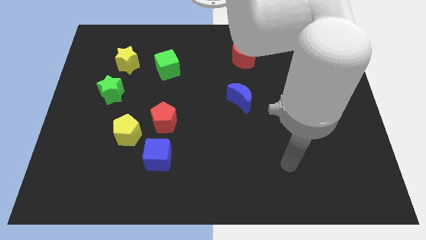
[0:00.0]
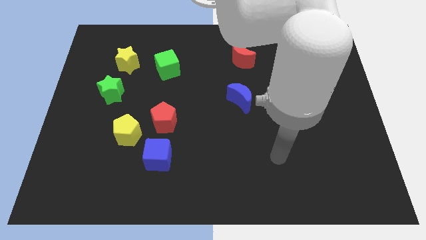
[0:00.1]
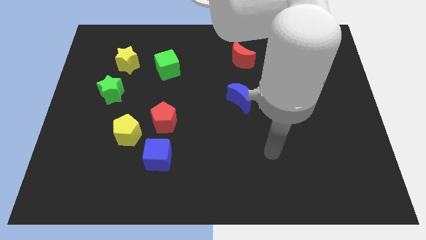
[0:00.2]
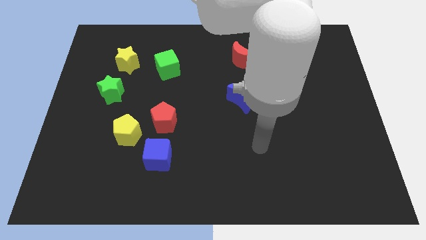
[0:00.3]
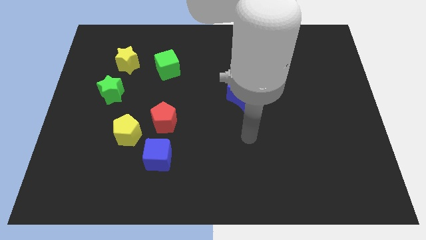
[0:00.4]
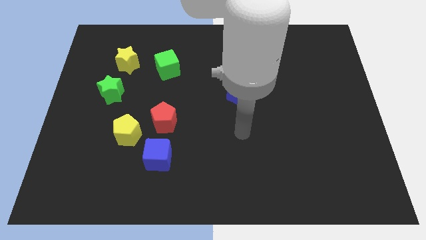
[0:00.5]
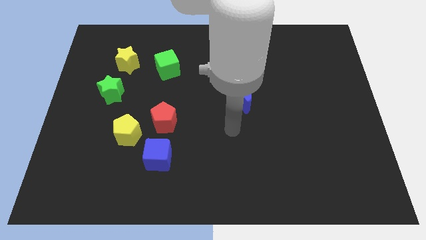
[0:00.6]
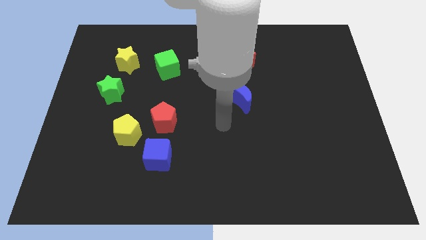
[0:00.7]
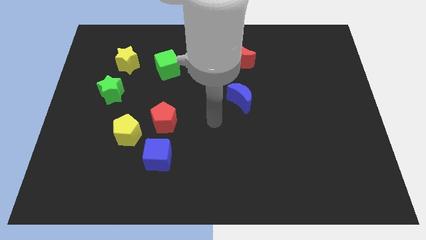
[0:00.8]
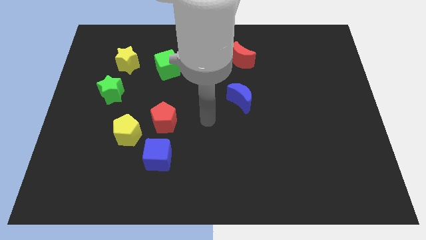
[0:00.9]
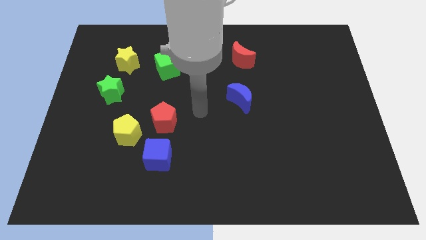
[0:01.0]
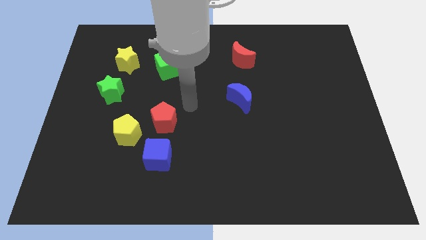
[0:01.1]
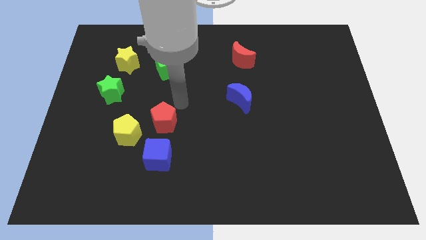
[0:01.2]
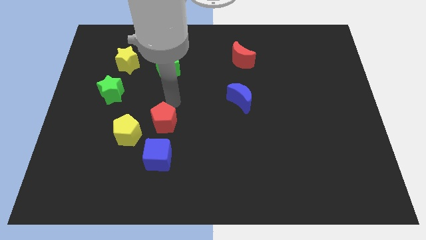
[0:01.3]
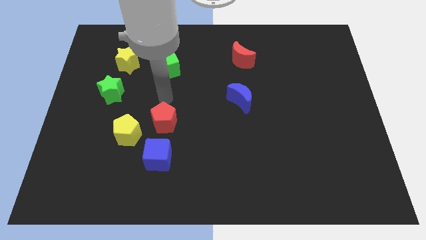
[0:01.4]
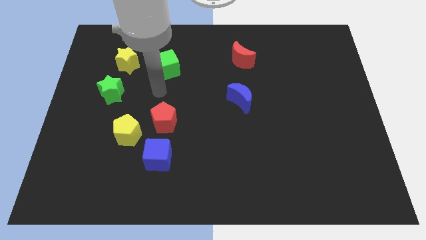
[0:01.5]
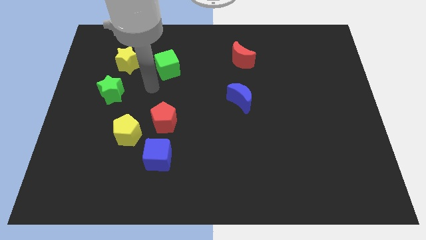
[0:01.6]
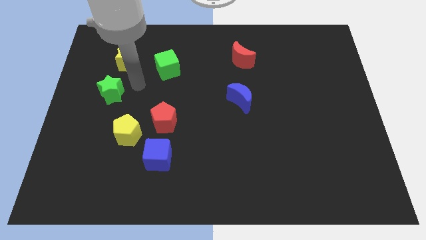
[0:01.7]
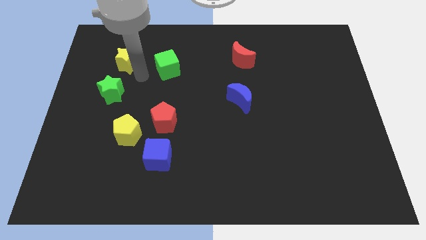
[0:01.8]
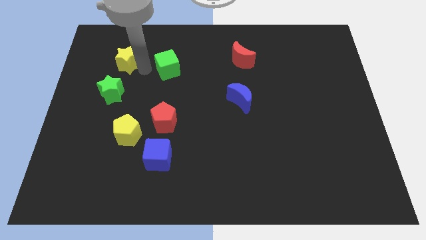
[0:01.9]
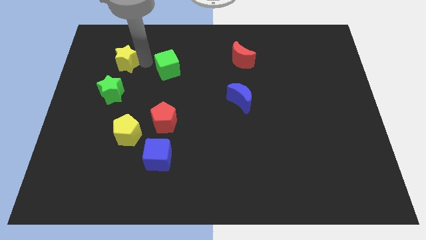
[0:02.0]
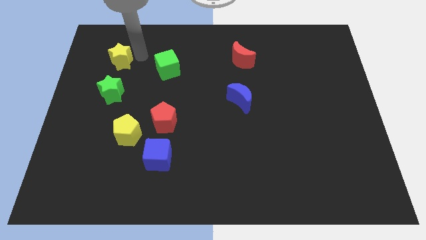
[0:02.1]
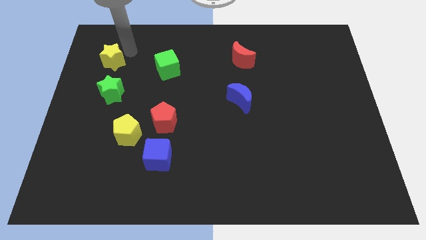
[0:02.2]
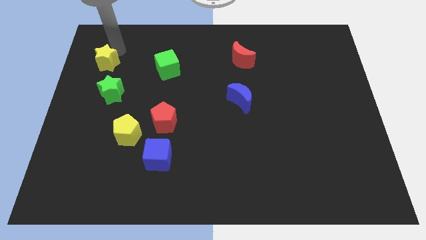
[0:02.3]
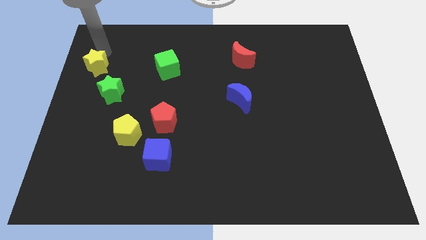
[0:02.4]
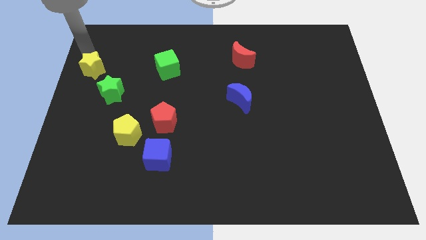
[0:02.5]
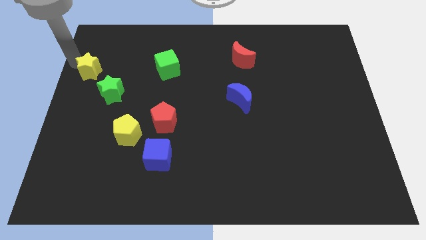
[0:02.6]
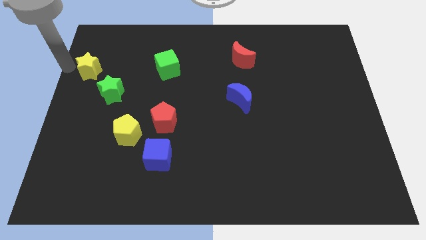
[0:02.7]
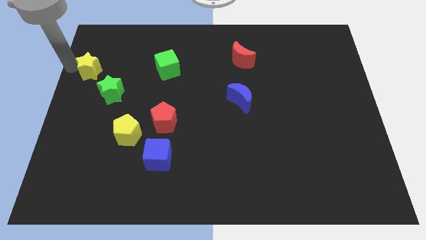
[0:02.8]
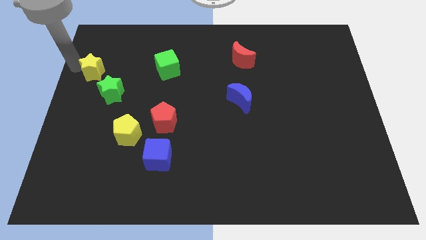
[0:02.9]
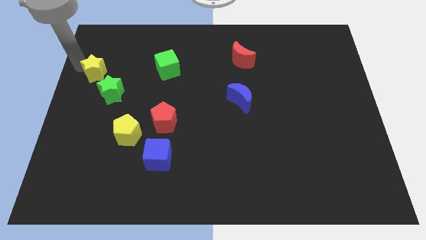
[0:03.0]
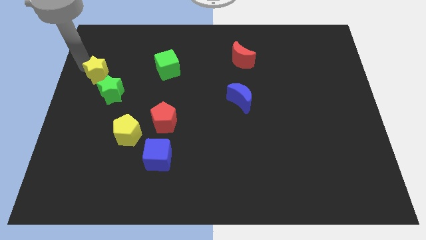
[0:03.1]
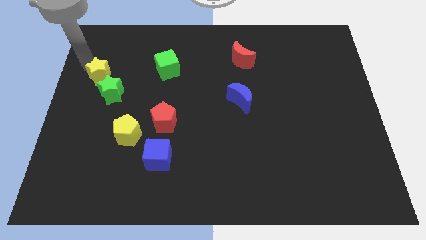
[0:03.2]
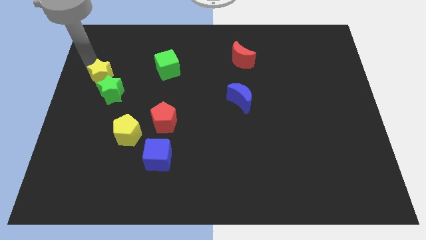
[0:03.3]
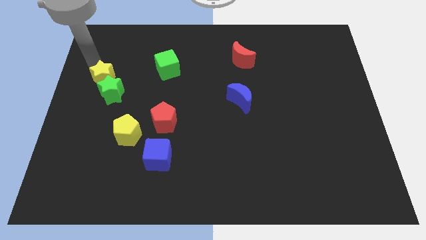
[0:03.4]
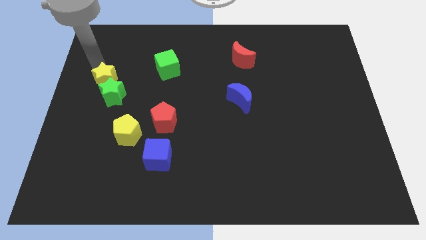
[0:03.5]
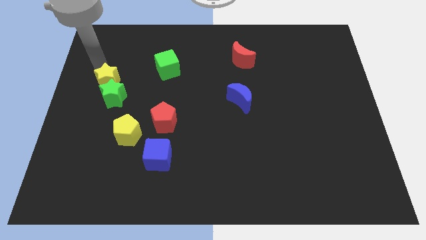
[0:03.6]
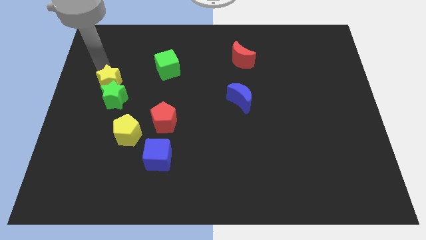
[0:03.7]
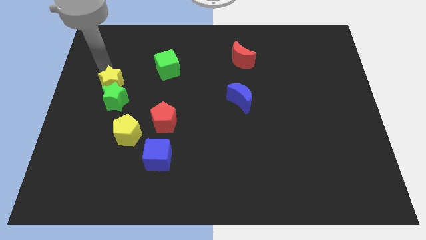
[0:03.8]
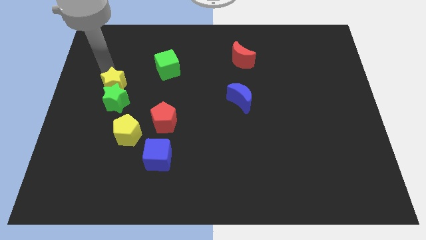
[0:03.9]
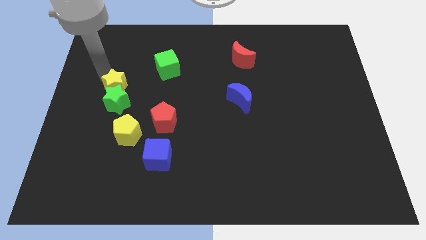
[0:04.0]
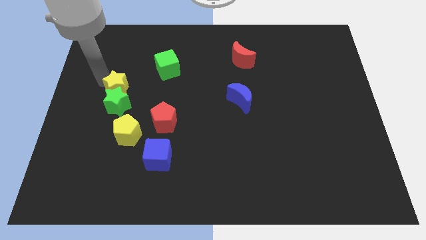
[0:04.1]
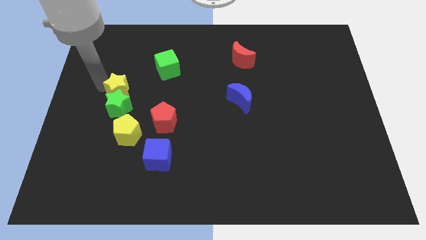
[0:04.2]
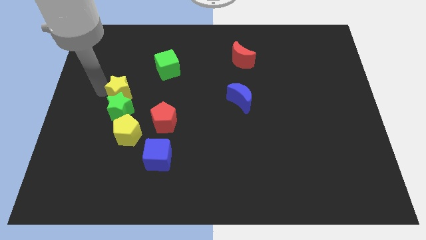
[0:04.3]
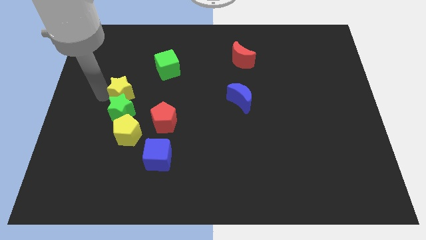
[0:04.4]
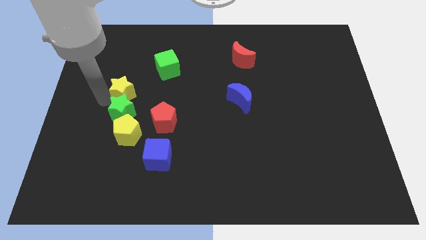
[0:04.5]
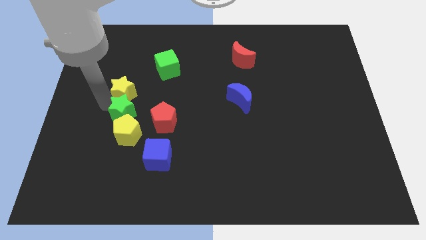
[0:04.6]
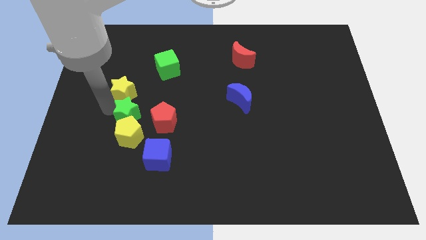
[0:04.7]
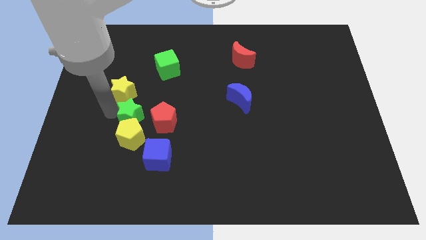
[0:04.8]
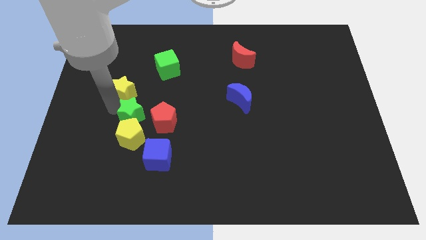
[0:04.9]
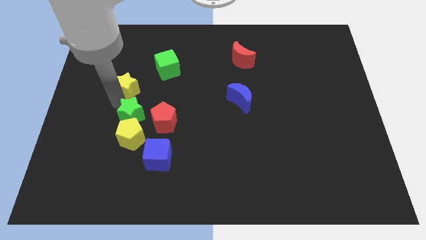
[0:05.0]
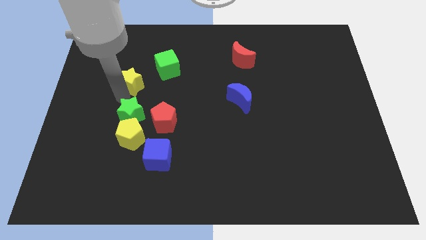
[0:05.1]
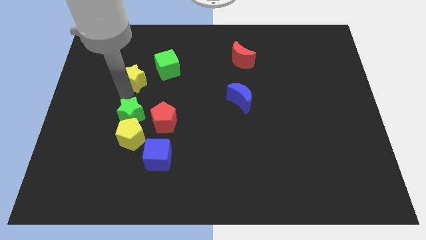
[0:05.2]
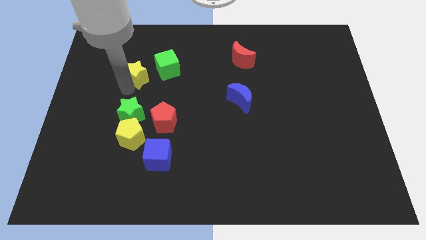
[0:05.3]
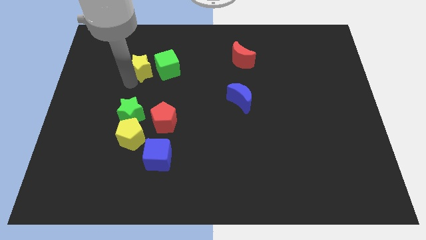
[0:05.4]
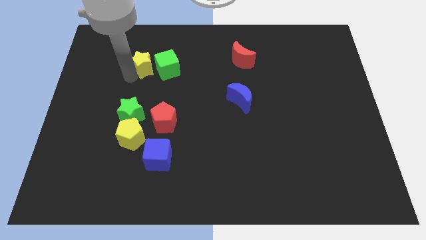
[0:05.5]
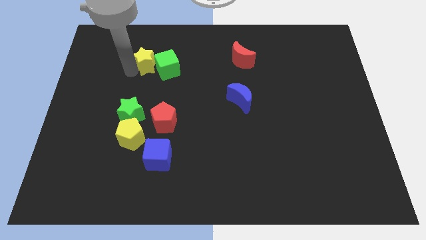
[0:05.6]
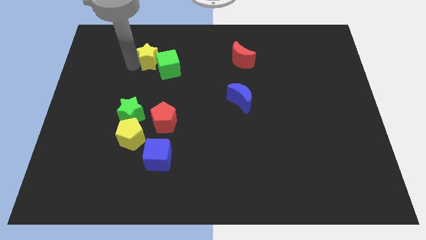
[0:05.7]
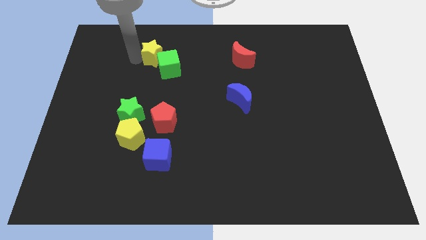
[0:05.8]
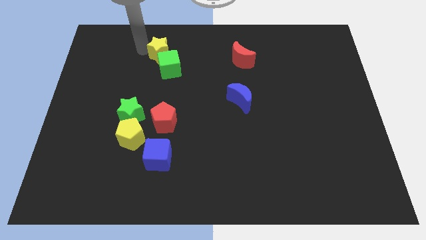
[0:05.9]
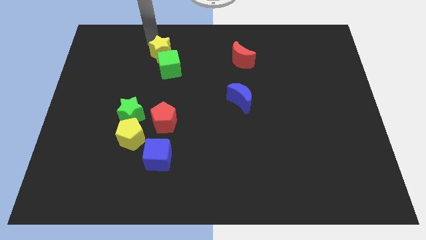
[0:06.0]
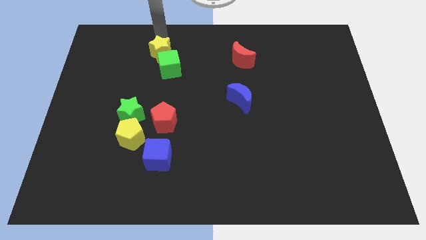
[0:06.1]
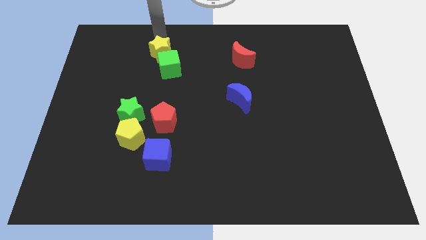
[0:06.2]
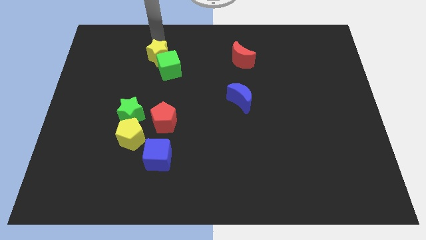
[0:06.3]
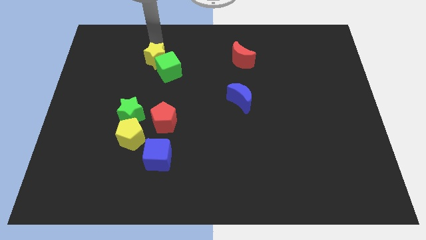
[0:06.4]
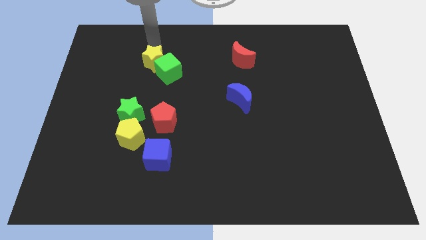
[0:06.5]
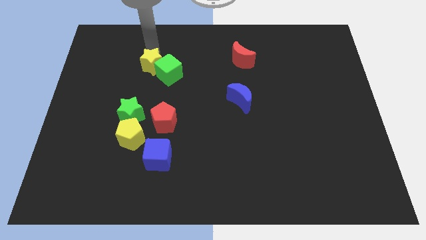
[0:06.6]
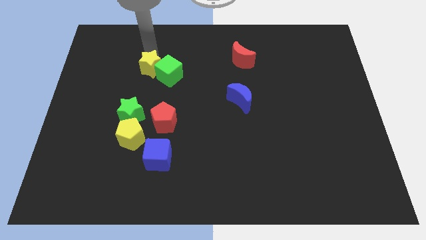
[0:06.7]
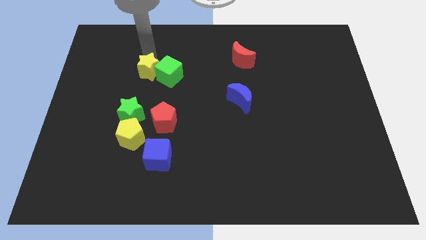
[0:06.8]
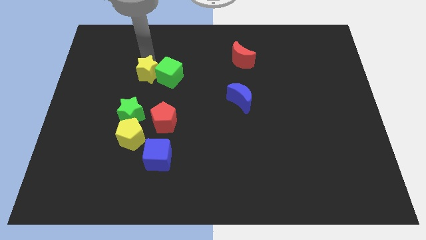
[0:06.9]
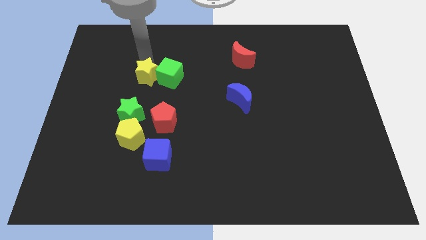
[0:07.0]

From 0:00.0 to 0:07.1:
slide the yellow star downwards and then to the right a little

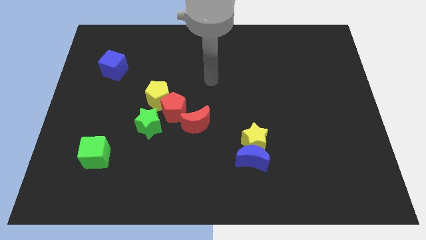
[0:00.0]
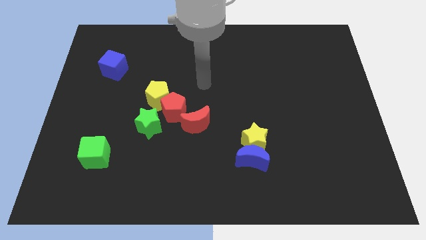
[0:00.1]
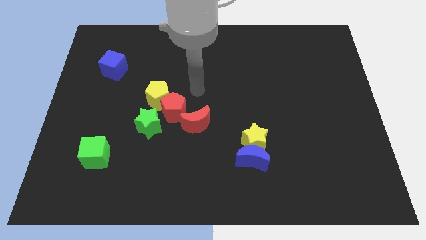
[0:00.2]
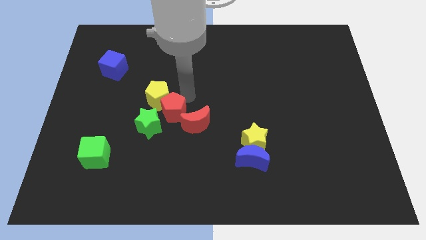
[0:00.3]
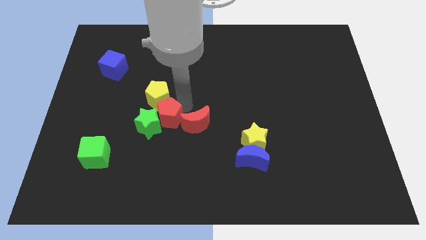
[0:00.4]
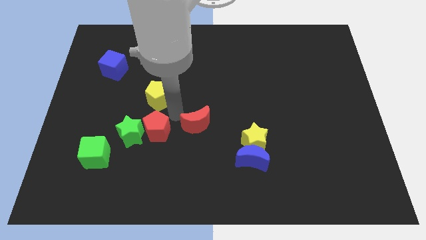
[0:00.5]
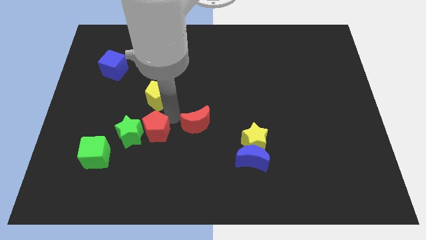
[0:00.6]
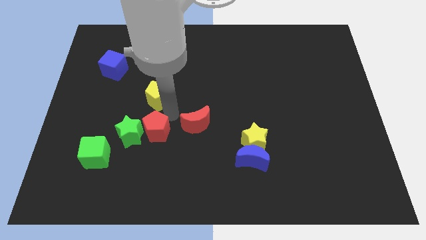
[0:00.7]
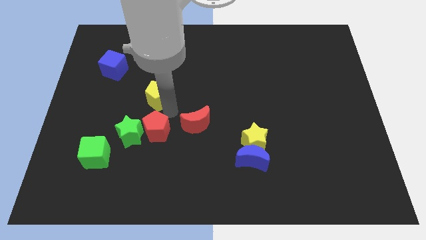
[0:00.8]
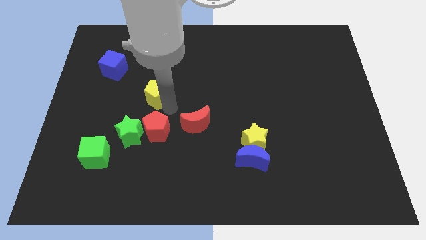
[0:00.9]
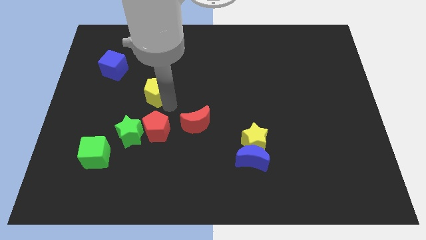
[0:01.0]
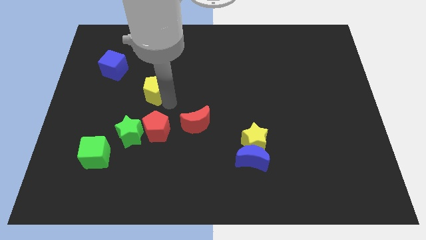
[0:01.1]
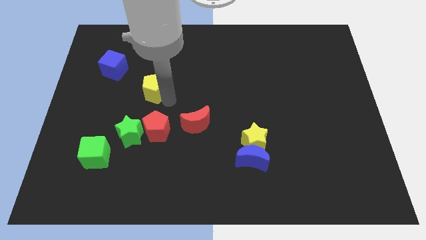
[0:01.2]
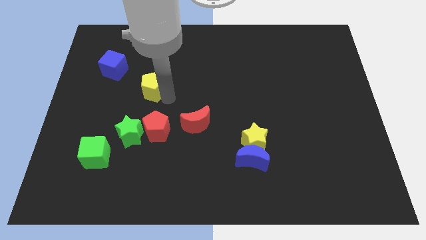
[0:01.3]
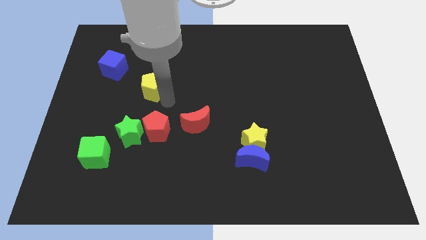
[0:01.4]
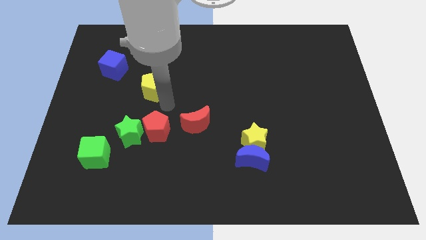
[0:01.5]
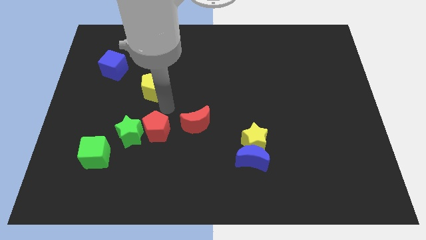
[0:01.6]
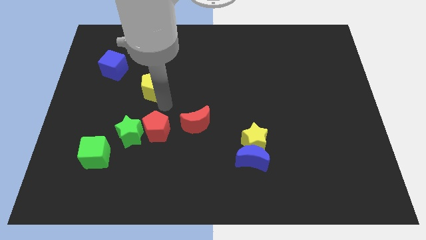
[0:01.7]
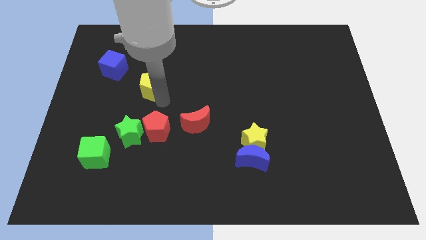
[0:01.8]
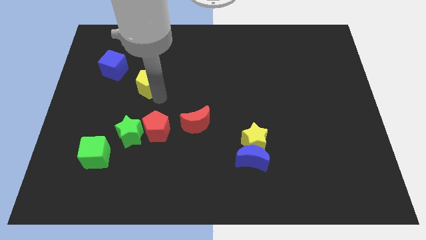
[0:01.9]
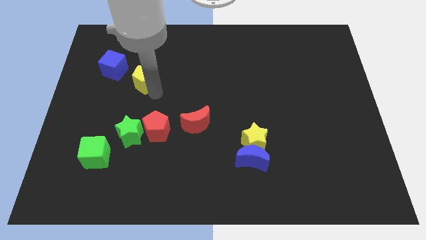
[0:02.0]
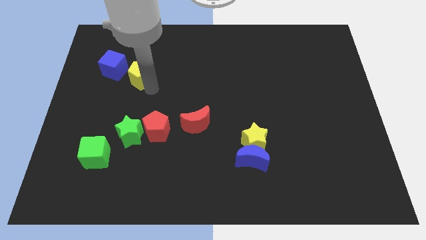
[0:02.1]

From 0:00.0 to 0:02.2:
push the yellow pentagon upwards and then to the left slightly
